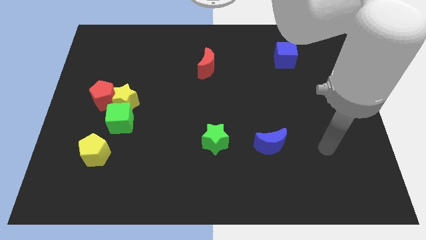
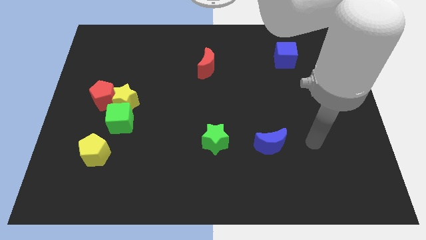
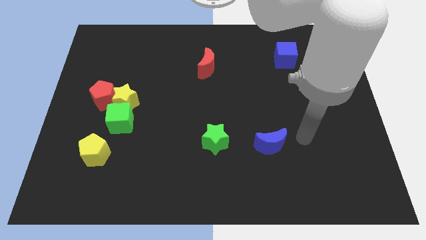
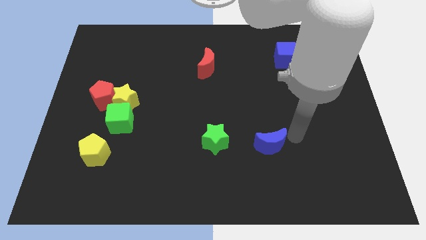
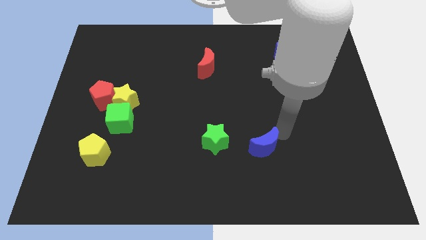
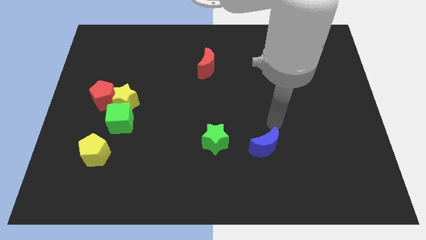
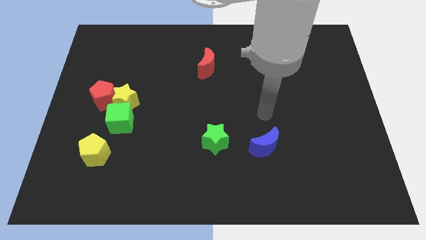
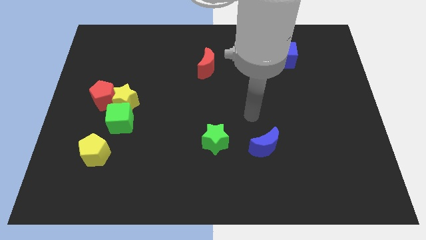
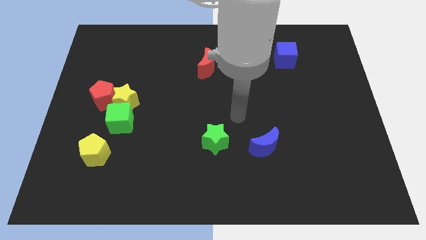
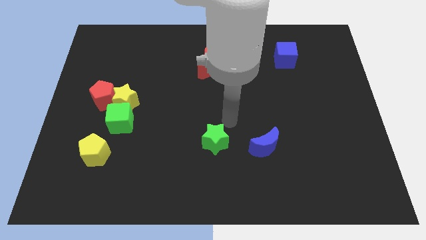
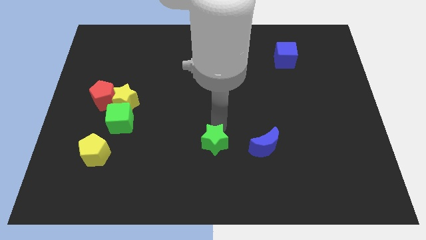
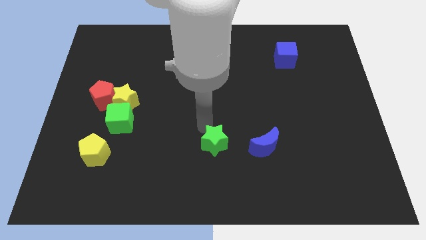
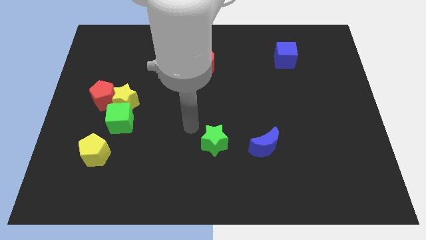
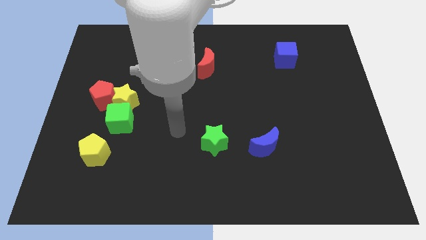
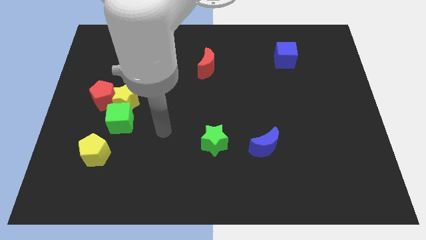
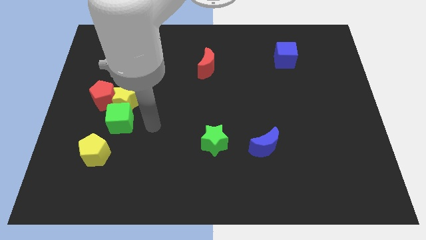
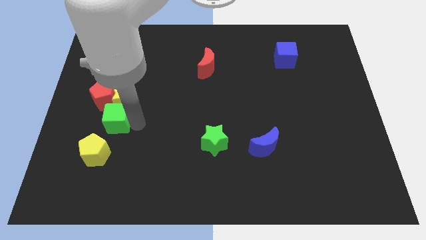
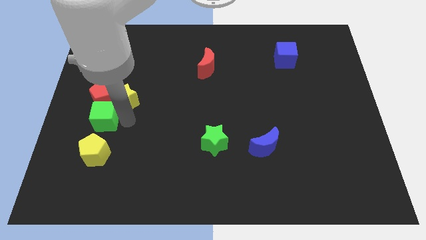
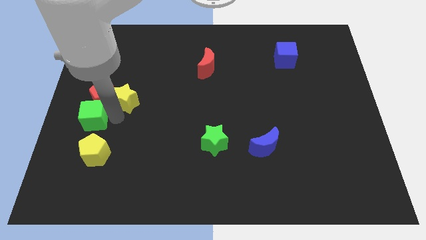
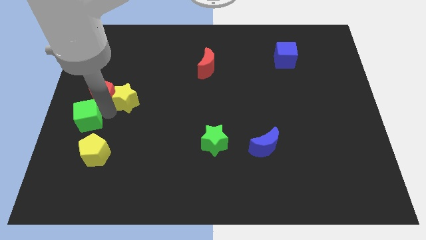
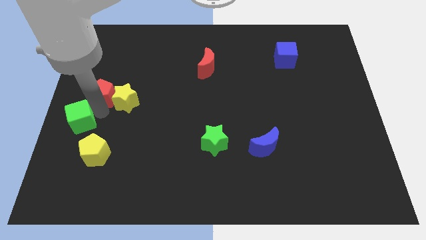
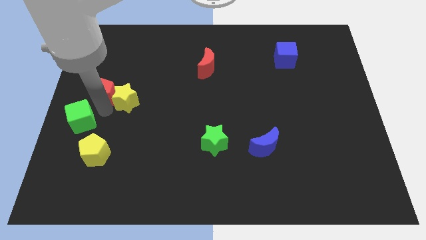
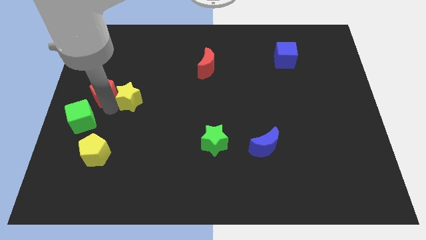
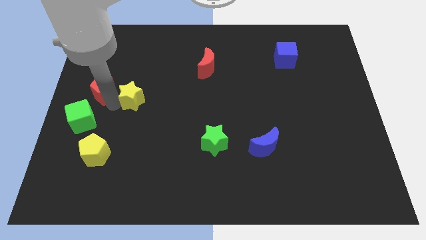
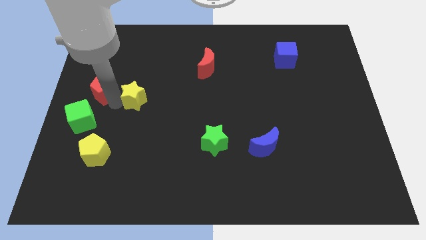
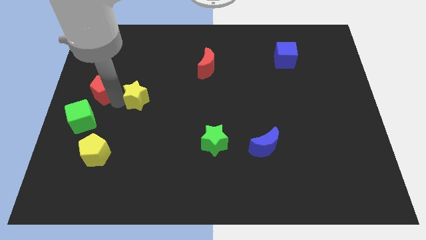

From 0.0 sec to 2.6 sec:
move the yellow star away from the red pentagon and green cube

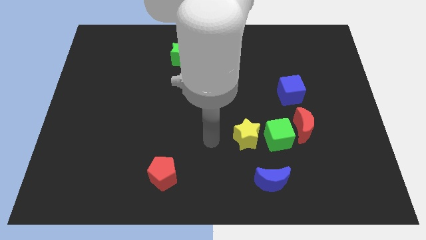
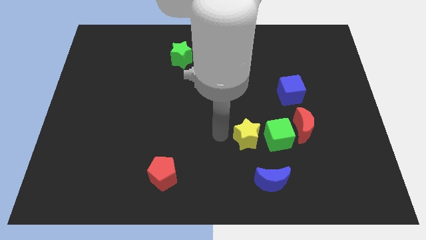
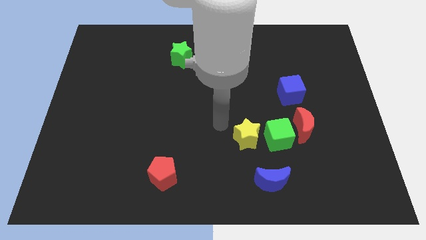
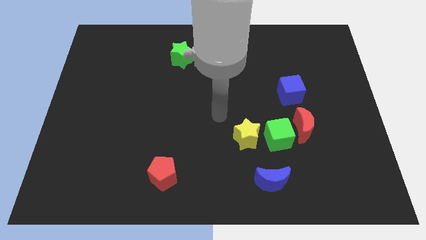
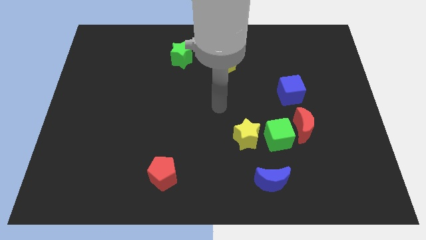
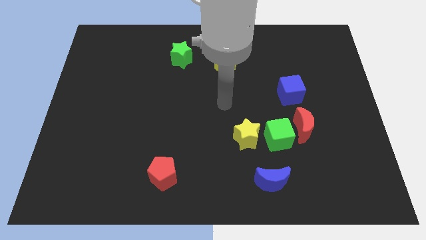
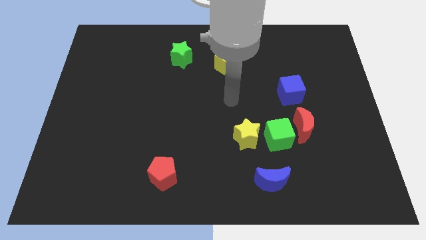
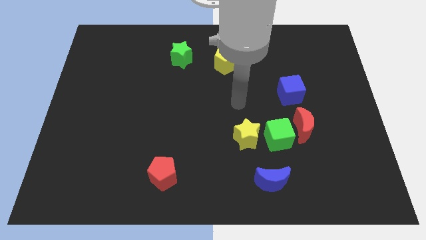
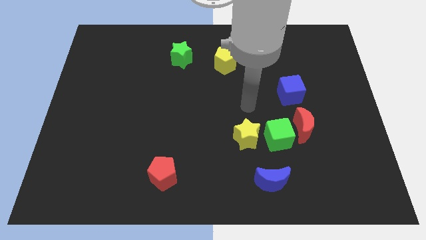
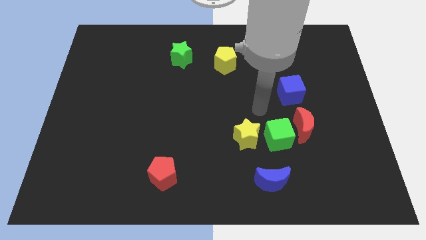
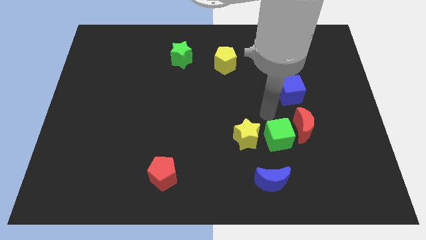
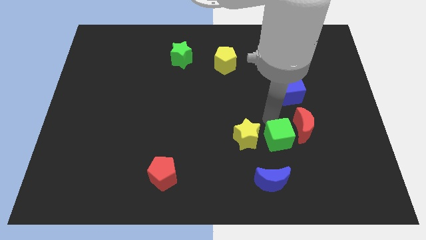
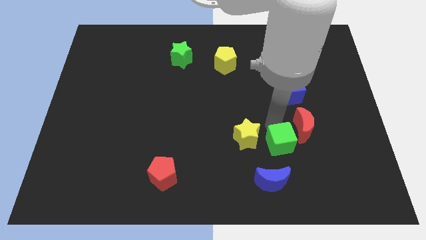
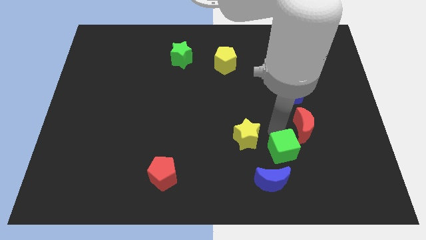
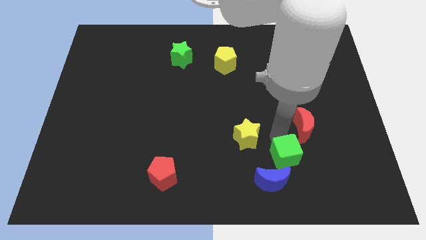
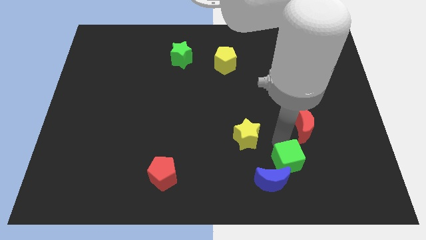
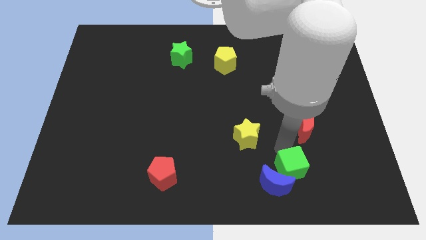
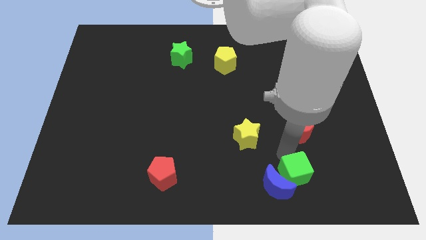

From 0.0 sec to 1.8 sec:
pull the green cube apart from the red moon and yellow star

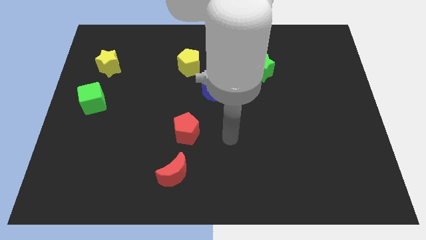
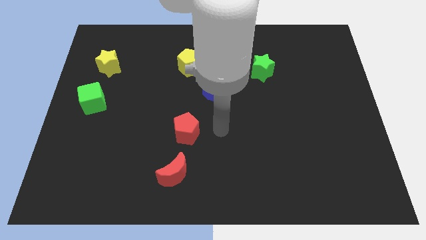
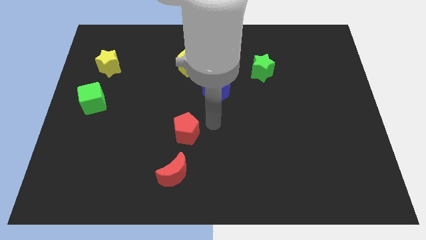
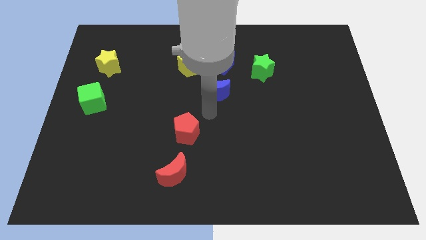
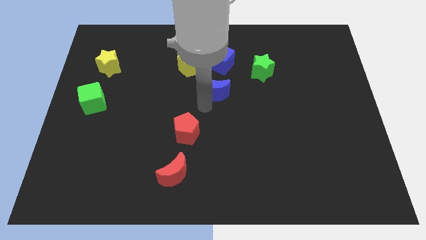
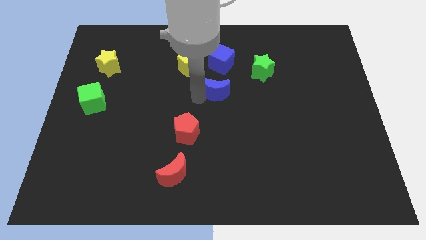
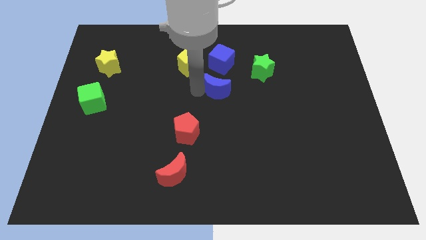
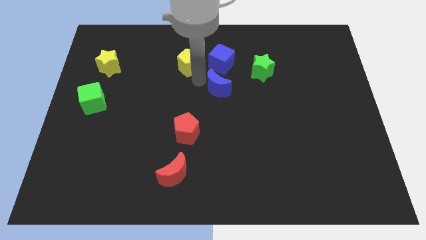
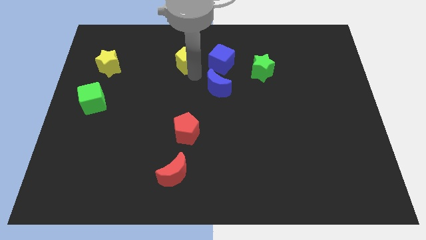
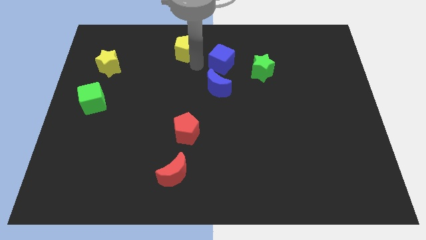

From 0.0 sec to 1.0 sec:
move the blue cube away from the yellow pentagon

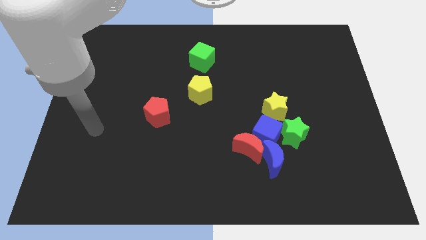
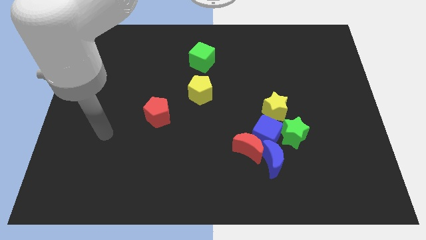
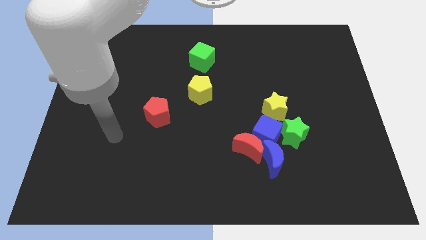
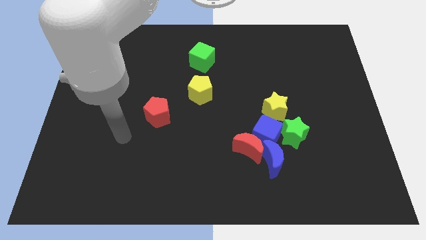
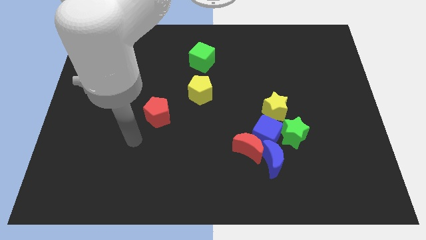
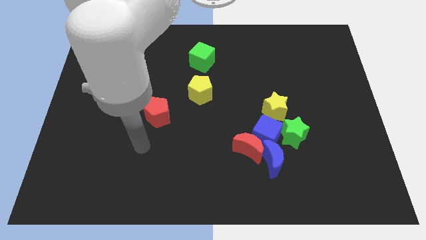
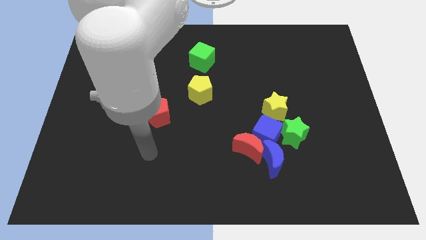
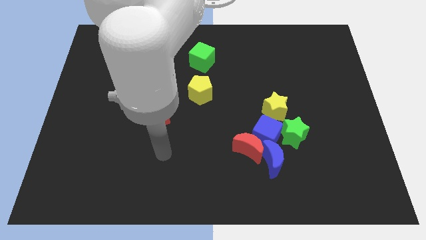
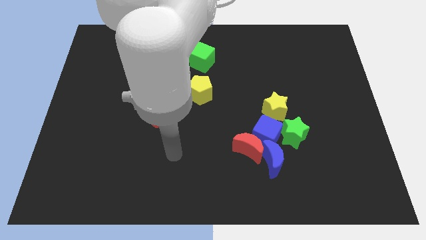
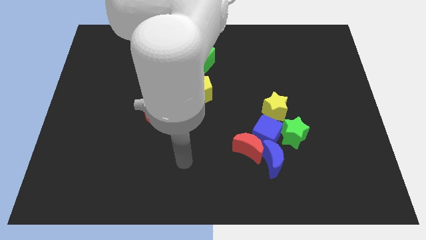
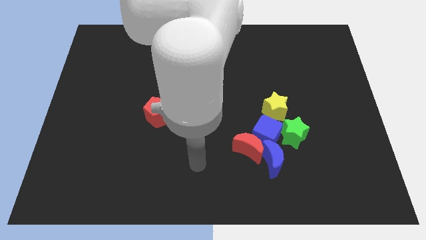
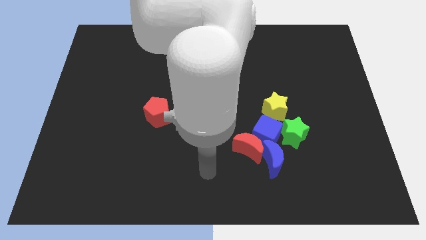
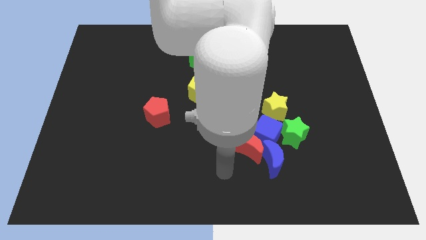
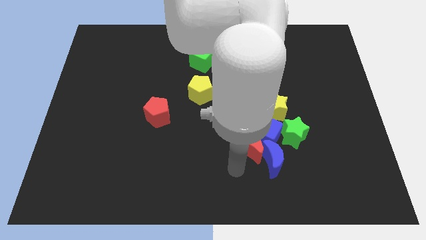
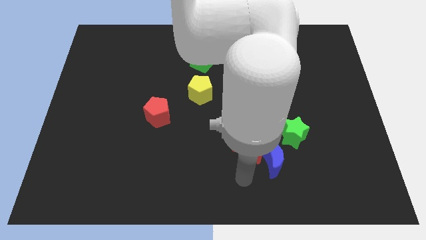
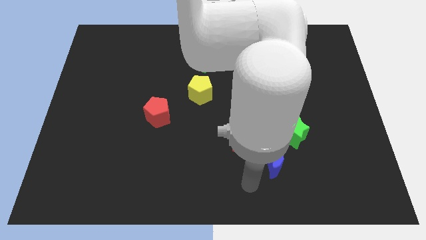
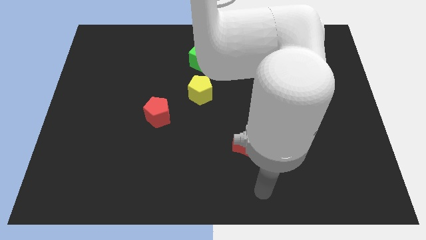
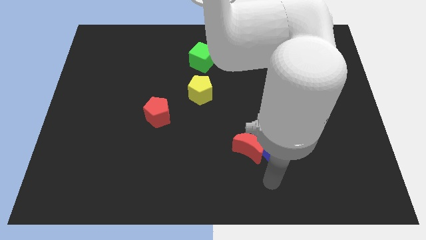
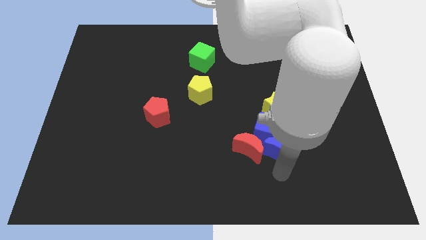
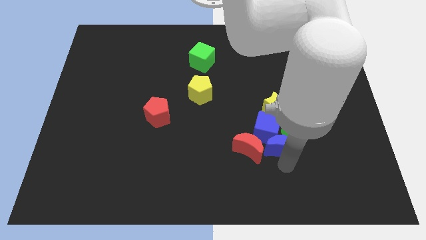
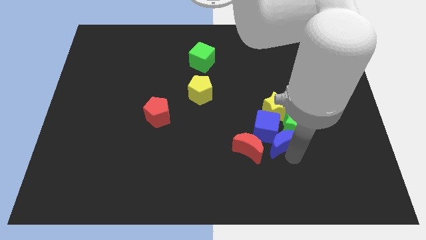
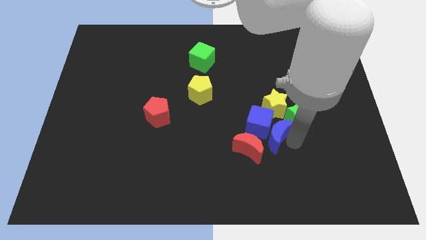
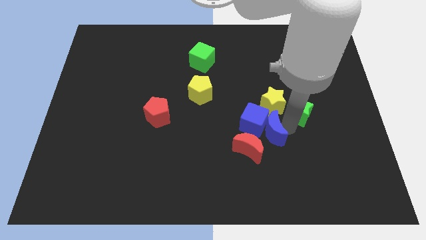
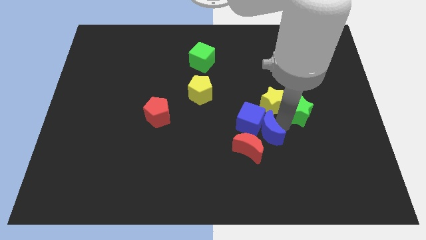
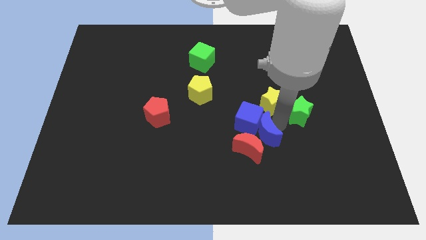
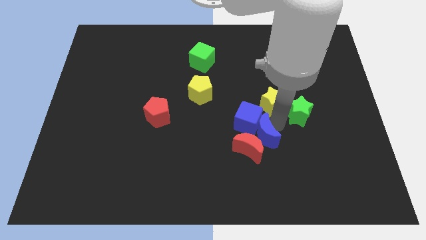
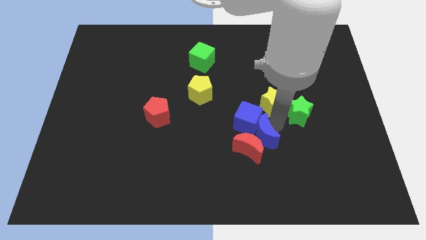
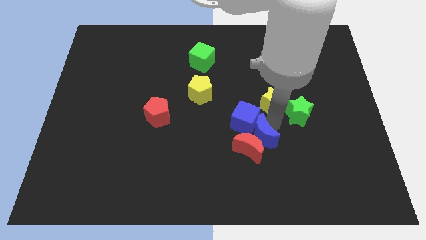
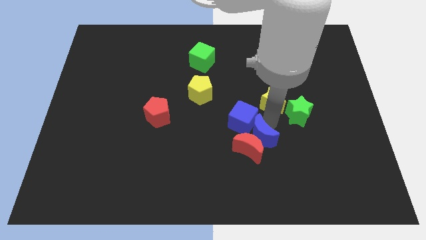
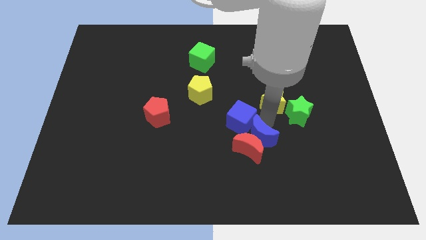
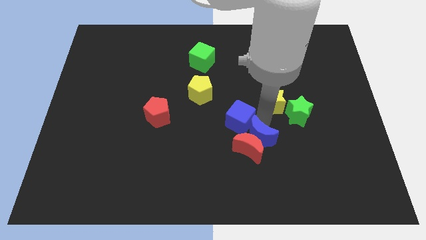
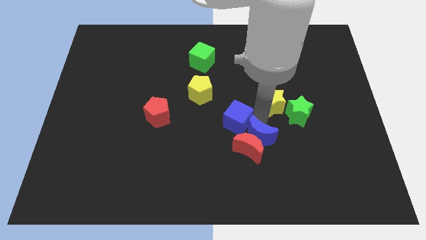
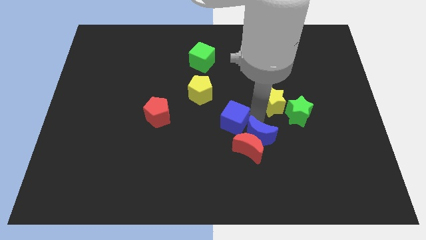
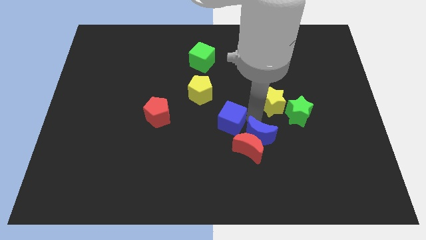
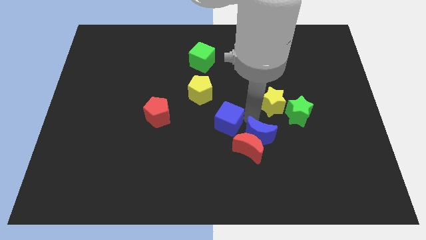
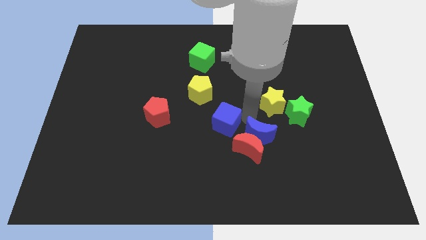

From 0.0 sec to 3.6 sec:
move the blue cube away from the group

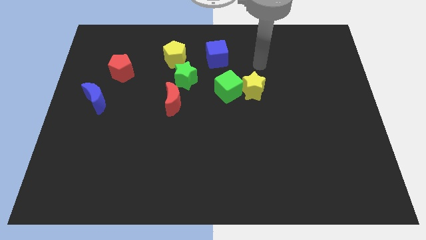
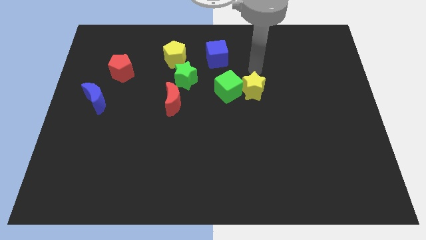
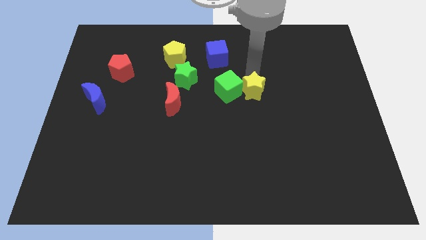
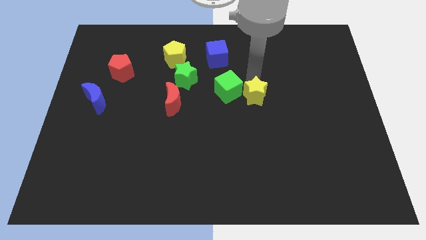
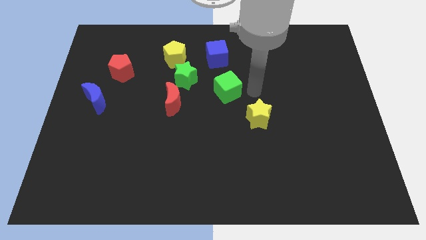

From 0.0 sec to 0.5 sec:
move the green cube away from the yellow star
